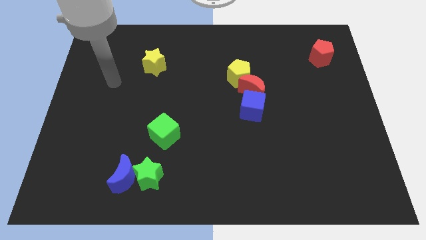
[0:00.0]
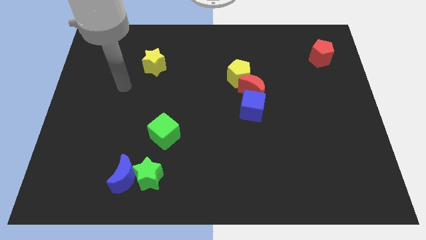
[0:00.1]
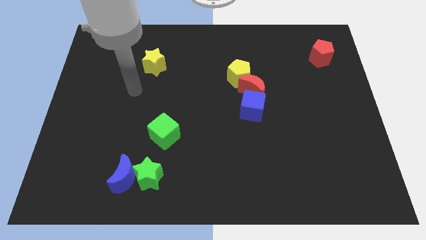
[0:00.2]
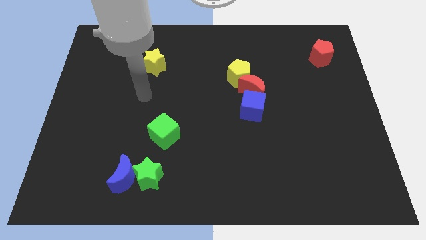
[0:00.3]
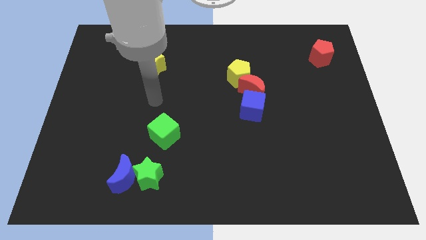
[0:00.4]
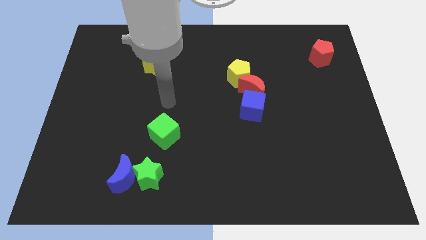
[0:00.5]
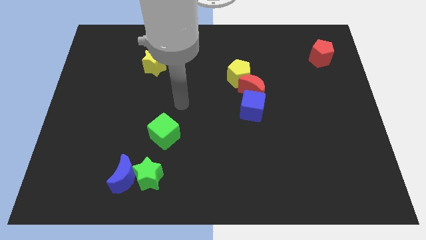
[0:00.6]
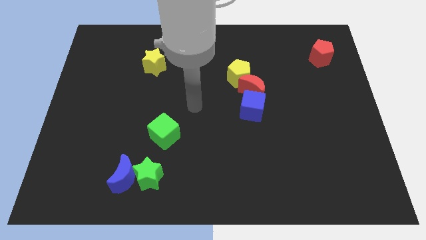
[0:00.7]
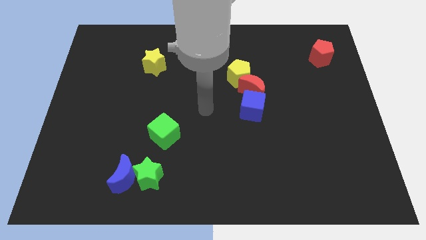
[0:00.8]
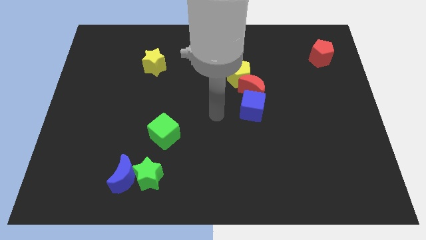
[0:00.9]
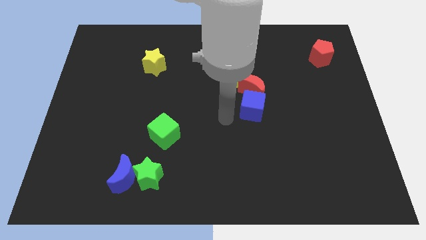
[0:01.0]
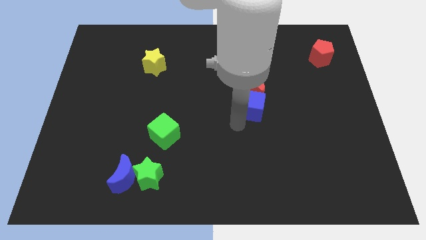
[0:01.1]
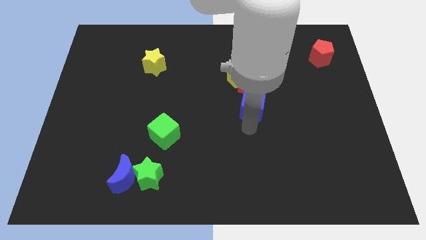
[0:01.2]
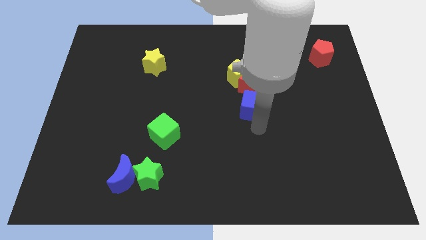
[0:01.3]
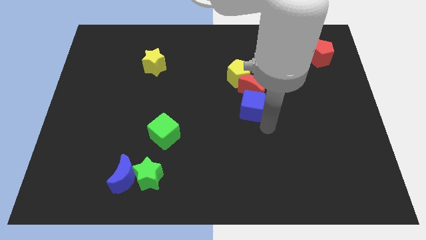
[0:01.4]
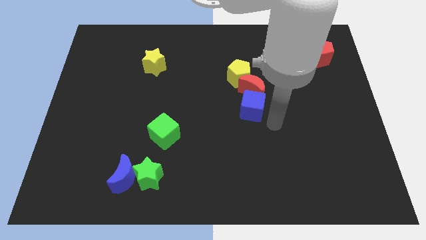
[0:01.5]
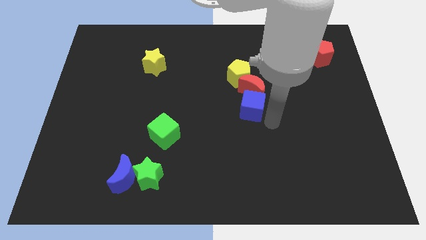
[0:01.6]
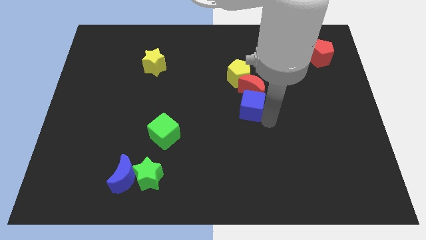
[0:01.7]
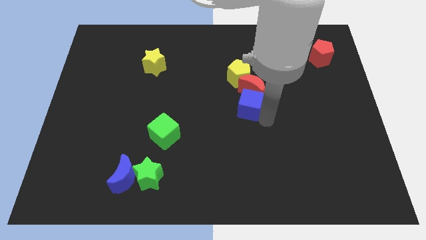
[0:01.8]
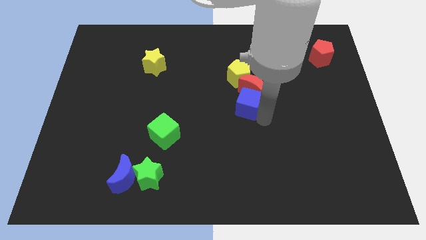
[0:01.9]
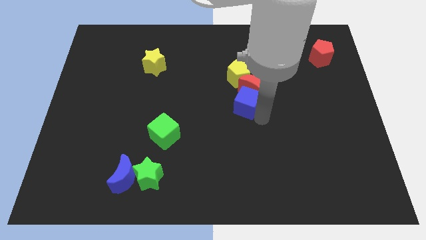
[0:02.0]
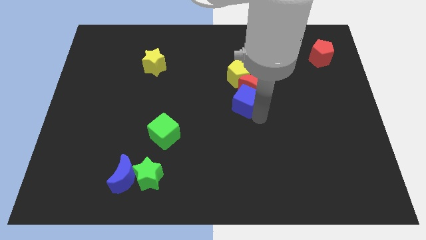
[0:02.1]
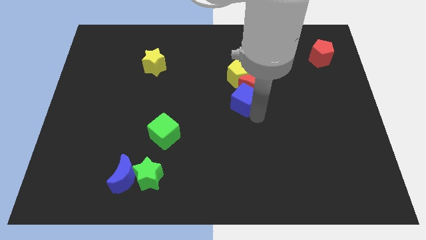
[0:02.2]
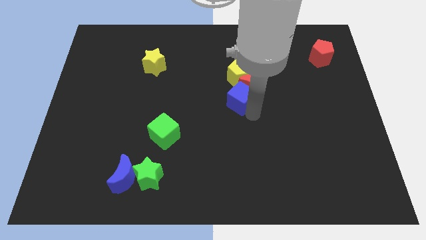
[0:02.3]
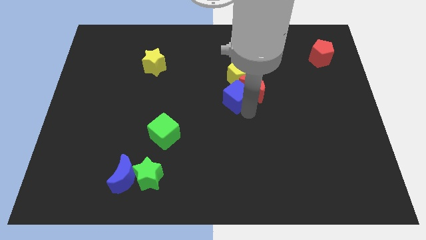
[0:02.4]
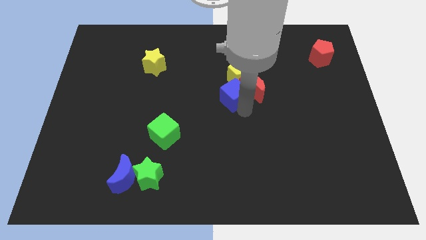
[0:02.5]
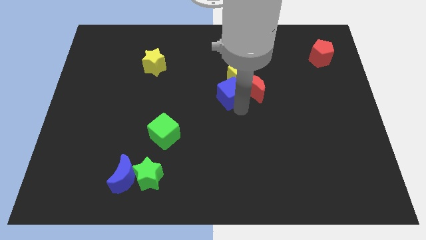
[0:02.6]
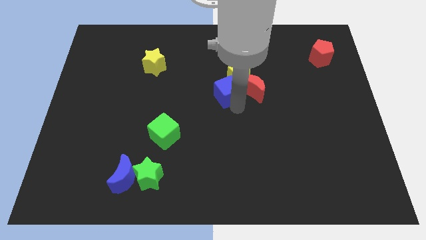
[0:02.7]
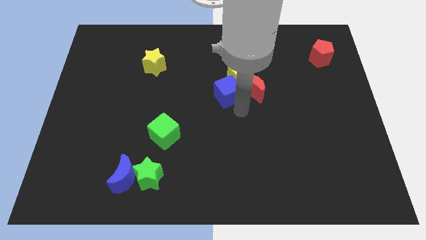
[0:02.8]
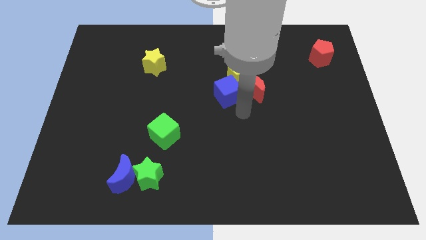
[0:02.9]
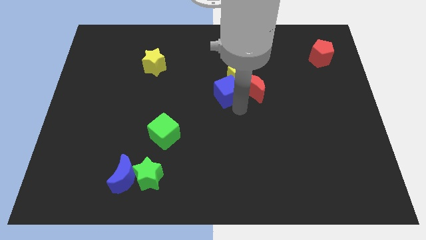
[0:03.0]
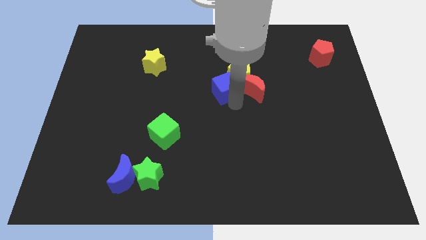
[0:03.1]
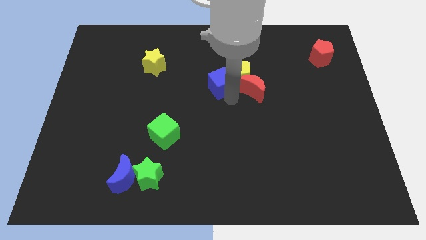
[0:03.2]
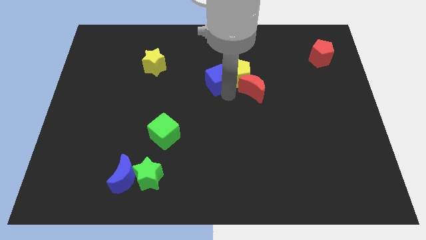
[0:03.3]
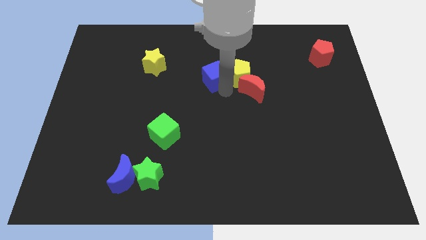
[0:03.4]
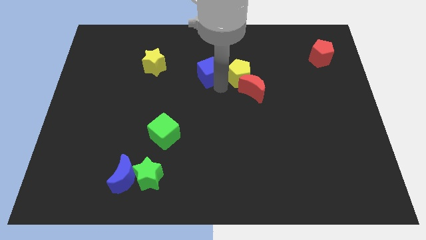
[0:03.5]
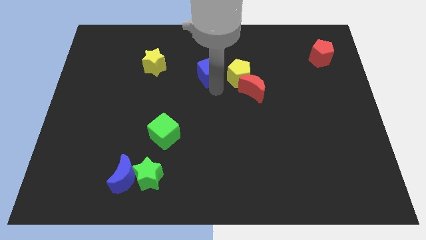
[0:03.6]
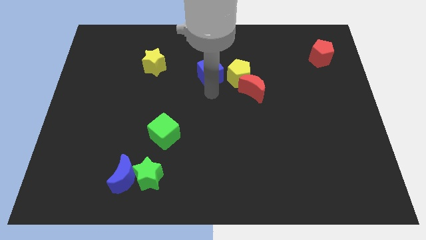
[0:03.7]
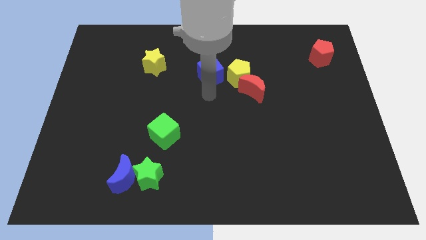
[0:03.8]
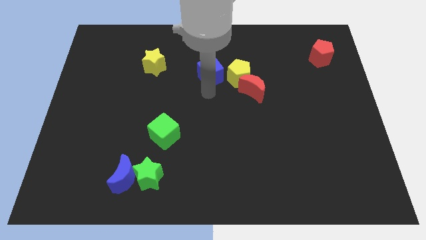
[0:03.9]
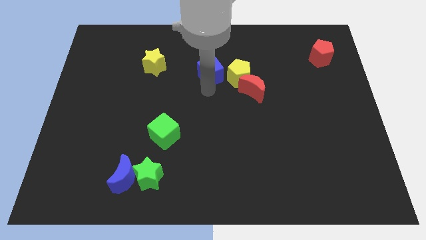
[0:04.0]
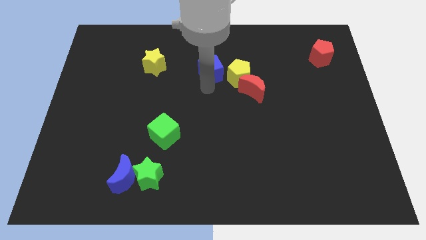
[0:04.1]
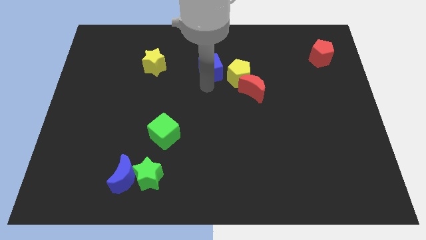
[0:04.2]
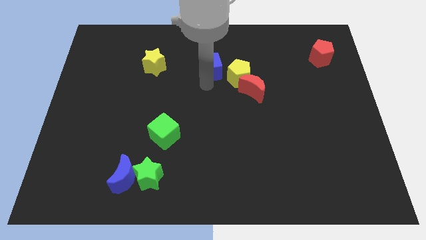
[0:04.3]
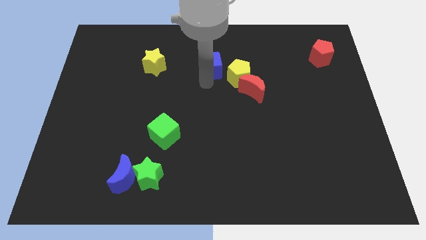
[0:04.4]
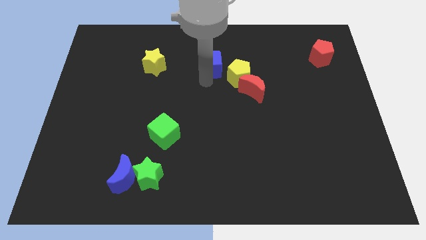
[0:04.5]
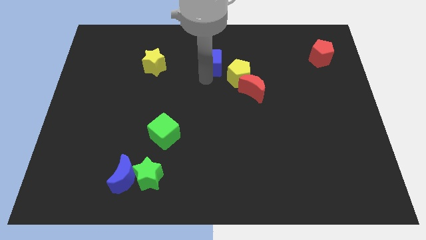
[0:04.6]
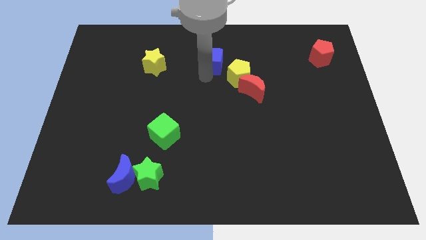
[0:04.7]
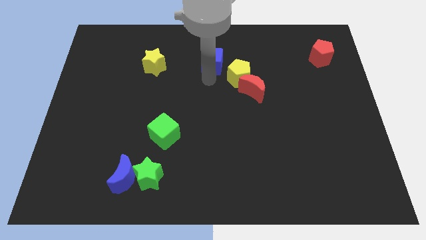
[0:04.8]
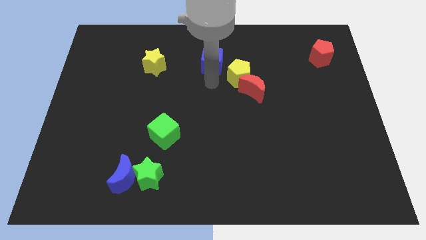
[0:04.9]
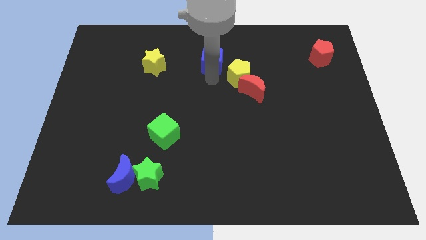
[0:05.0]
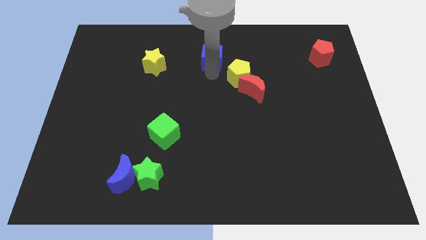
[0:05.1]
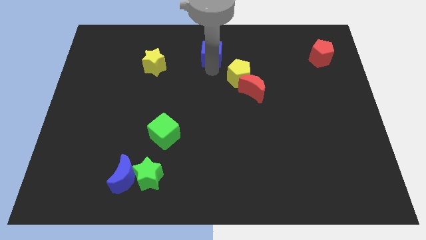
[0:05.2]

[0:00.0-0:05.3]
slide the blue cube to the top

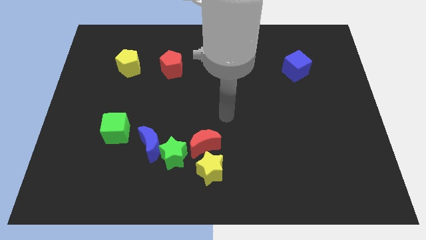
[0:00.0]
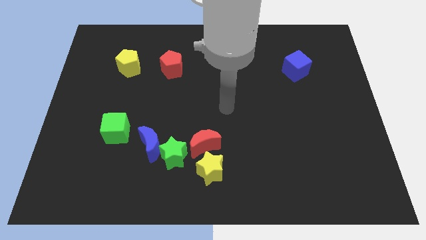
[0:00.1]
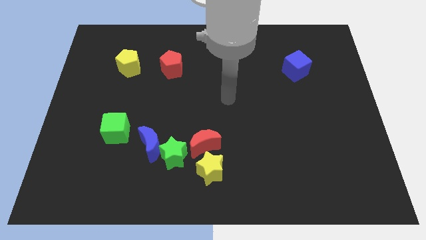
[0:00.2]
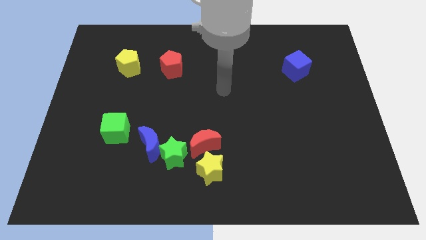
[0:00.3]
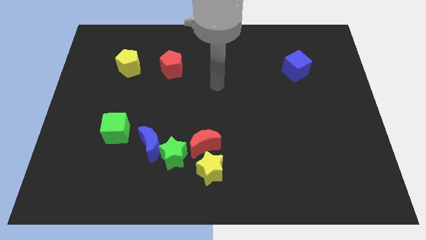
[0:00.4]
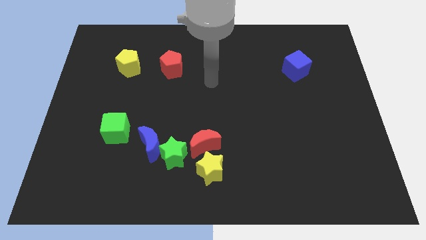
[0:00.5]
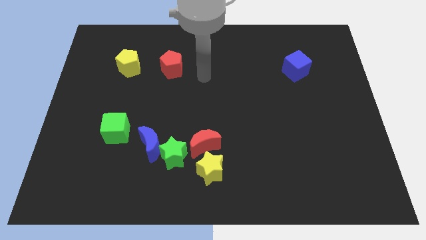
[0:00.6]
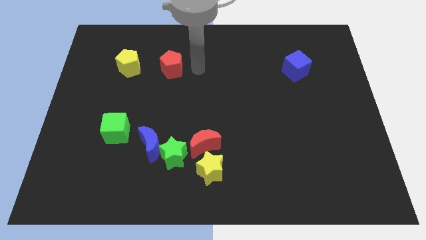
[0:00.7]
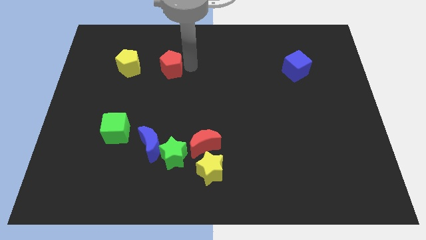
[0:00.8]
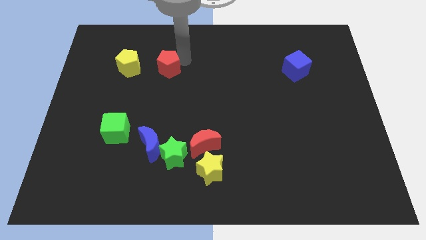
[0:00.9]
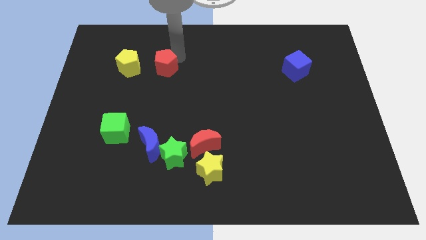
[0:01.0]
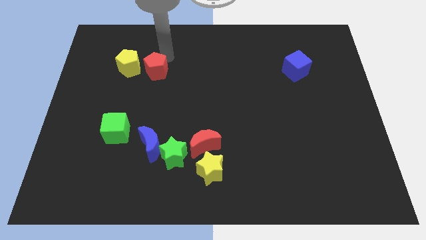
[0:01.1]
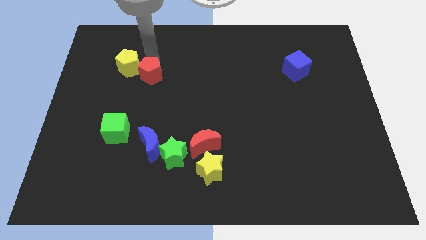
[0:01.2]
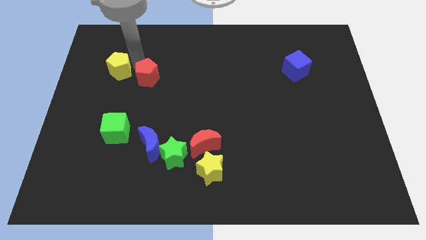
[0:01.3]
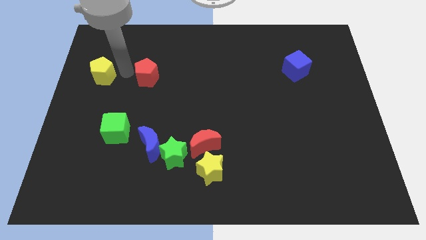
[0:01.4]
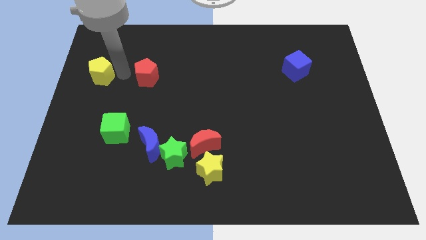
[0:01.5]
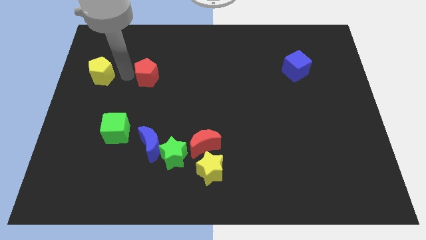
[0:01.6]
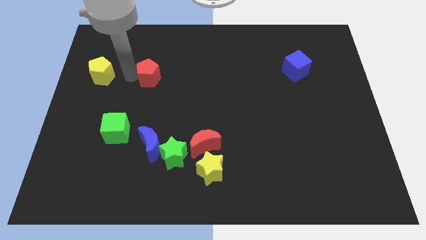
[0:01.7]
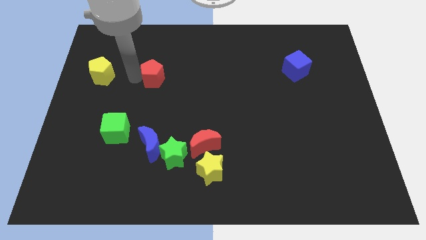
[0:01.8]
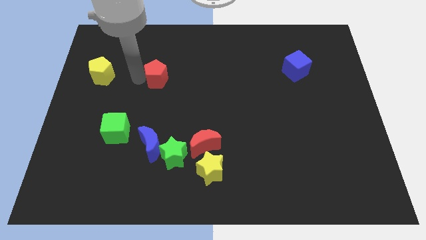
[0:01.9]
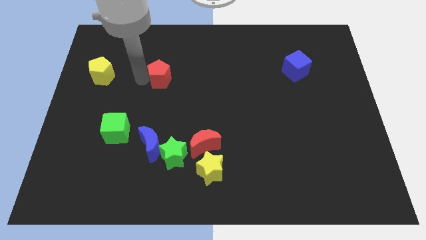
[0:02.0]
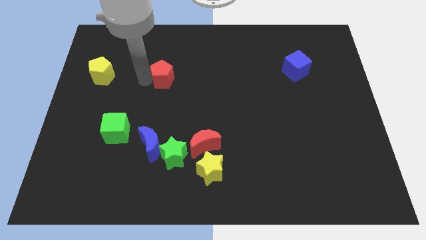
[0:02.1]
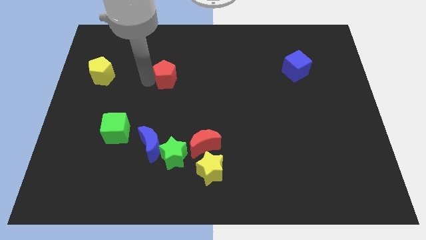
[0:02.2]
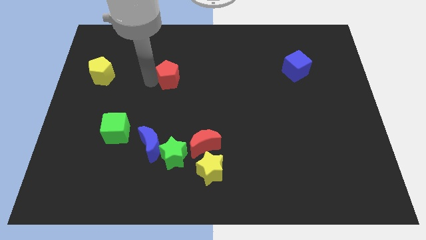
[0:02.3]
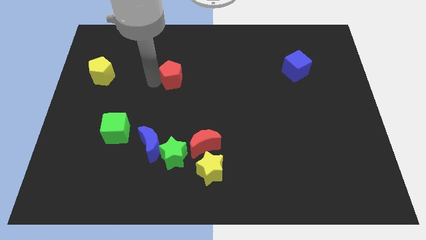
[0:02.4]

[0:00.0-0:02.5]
put the red pentagon to the middle of the board
